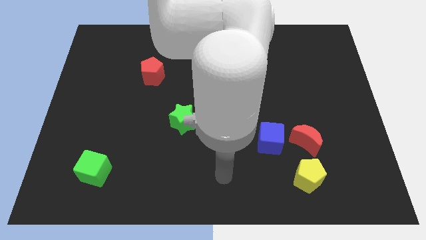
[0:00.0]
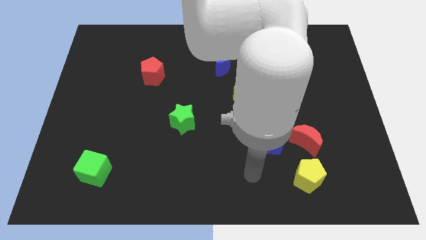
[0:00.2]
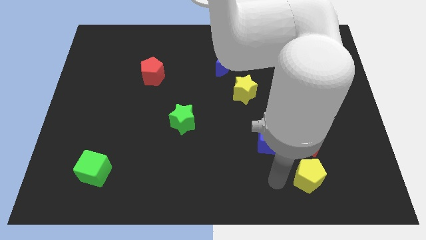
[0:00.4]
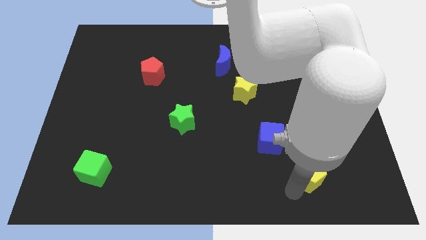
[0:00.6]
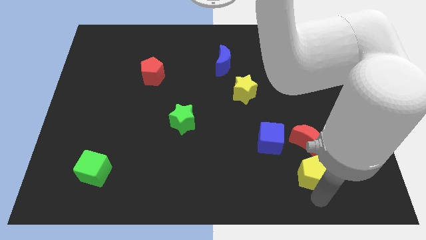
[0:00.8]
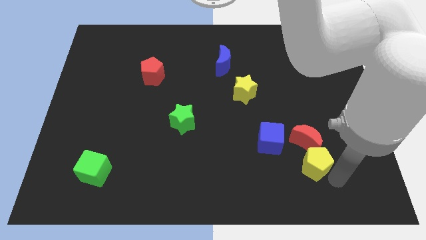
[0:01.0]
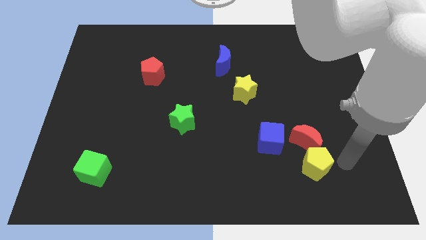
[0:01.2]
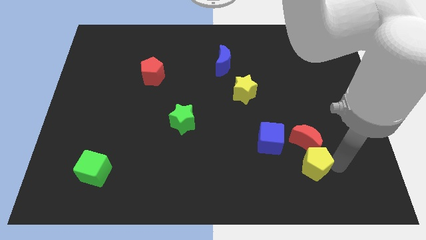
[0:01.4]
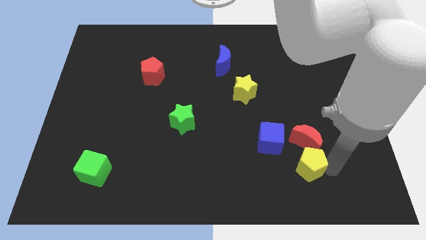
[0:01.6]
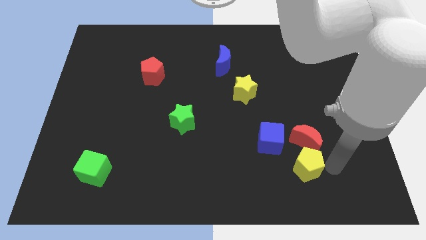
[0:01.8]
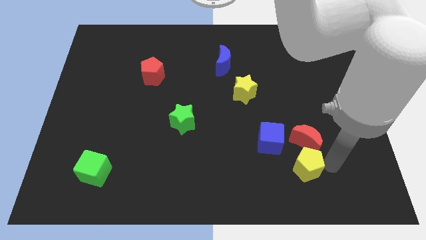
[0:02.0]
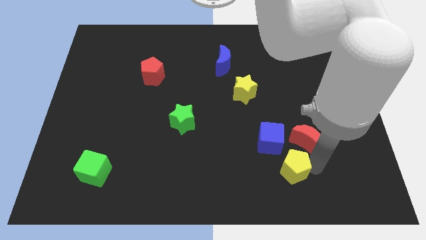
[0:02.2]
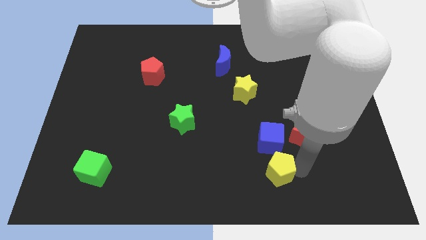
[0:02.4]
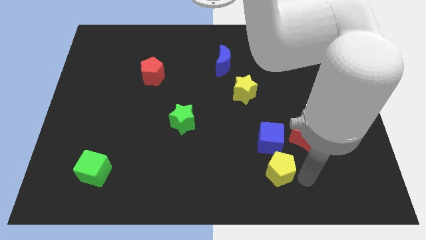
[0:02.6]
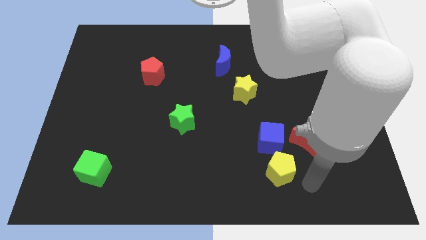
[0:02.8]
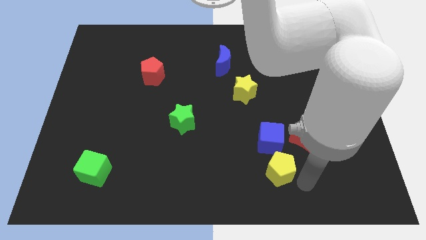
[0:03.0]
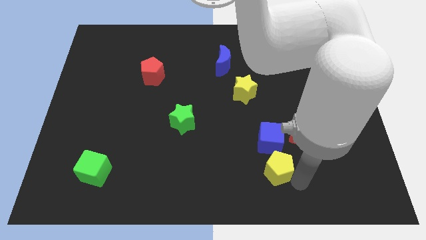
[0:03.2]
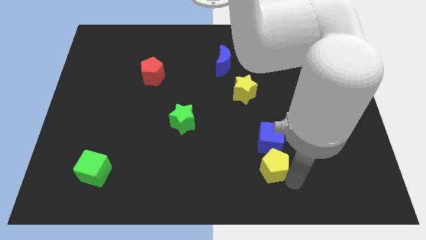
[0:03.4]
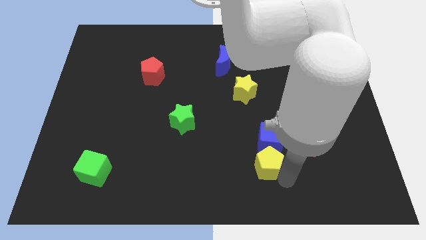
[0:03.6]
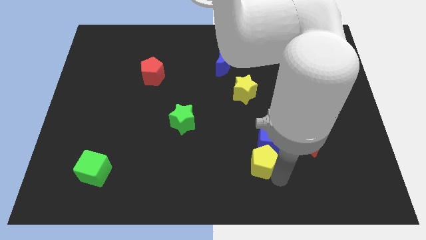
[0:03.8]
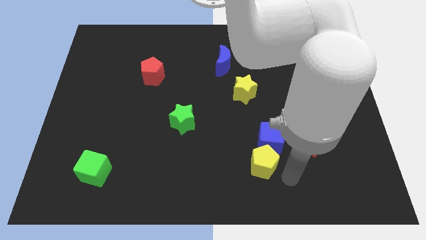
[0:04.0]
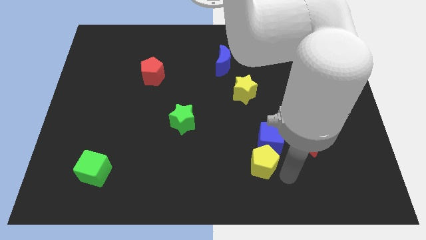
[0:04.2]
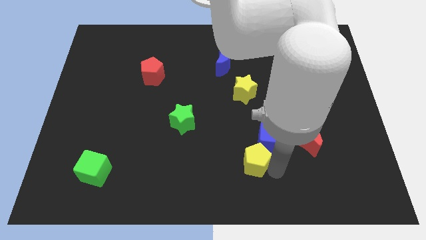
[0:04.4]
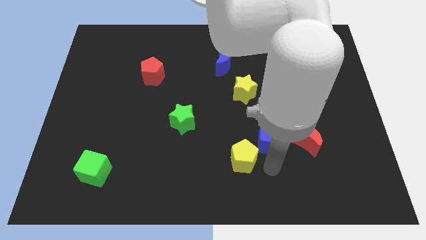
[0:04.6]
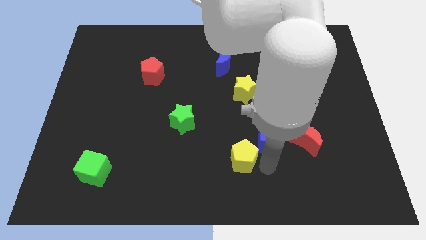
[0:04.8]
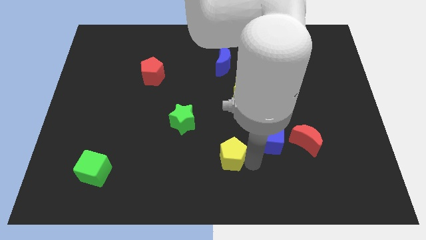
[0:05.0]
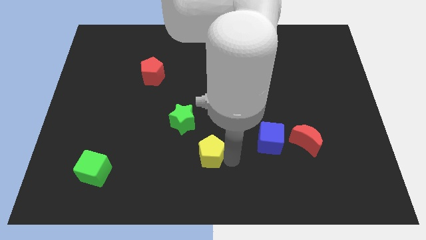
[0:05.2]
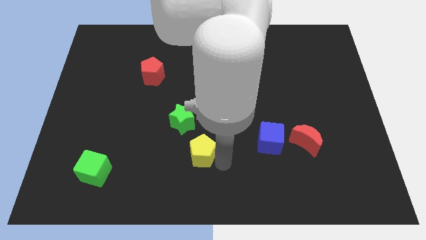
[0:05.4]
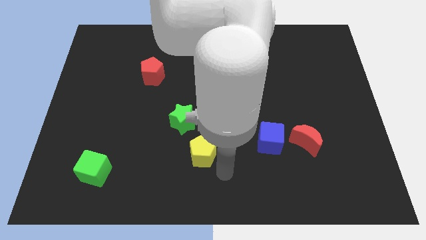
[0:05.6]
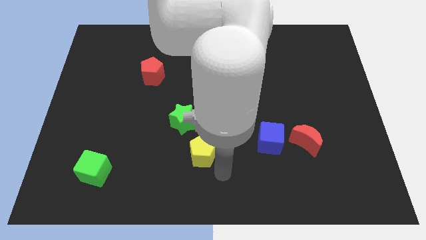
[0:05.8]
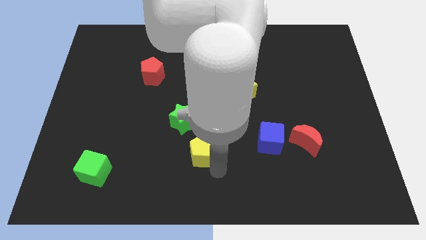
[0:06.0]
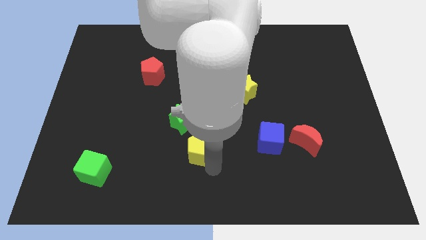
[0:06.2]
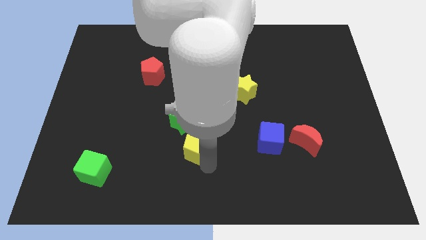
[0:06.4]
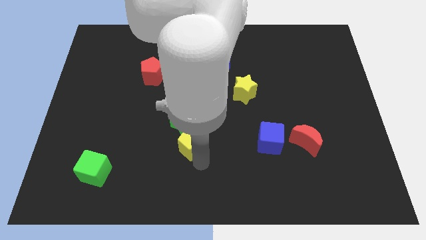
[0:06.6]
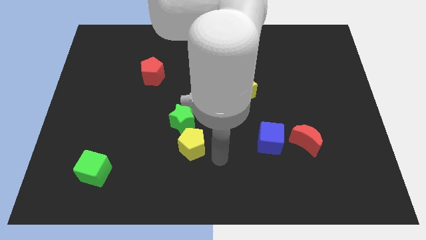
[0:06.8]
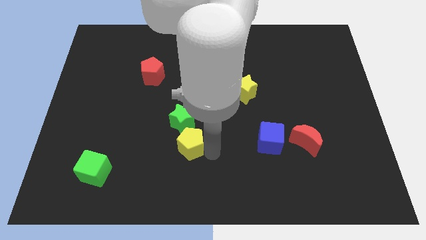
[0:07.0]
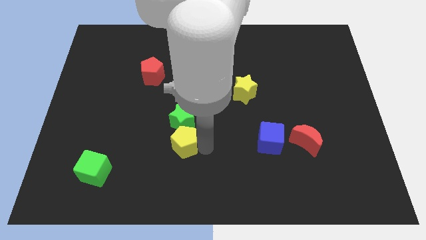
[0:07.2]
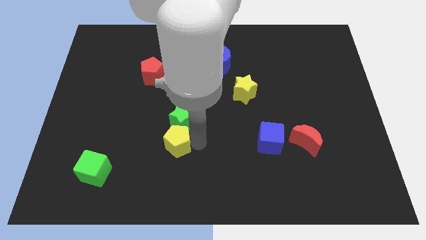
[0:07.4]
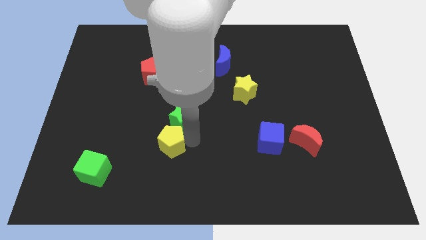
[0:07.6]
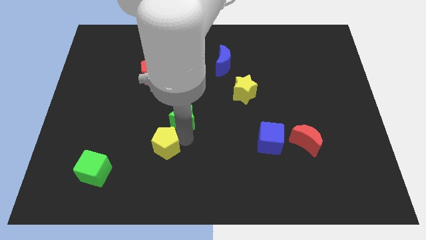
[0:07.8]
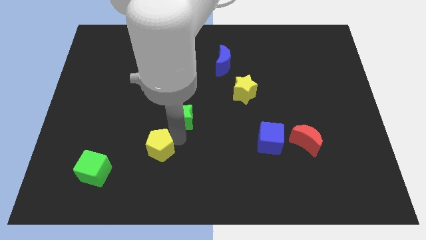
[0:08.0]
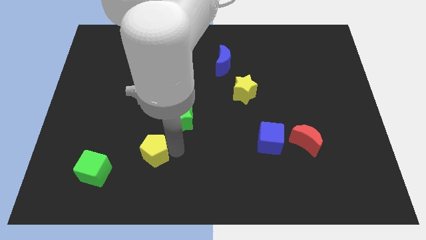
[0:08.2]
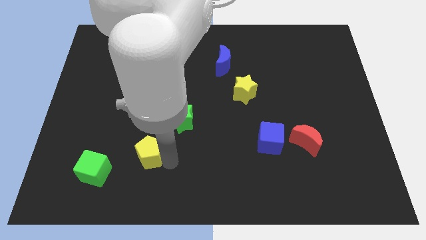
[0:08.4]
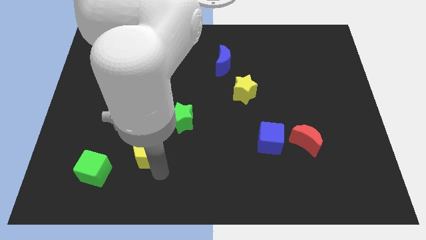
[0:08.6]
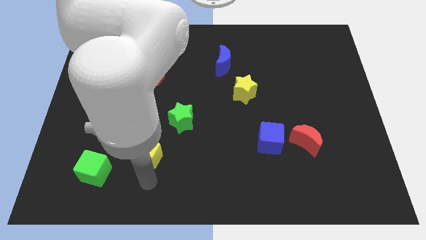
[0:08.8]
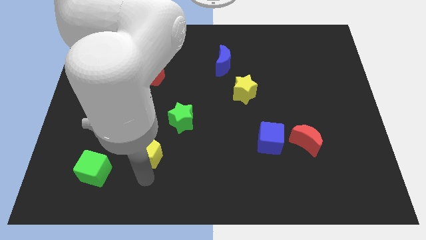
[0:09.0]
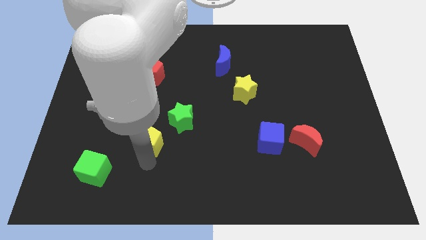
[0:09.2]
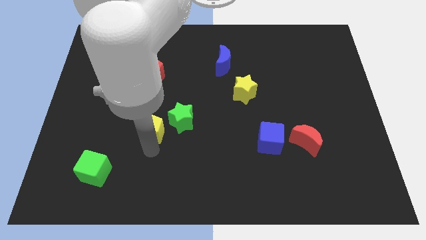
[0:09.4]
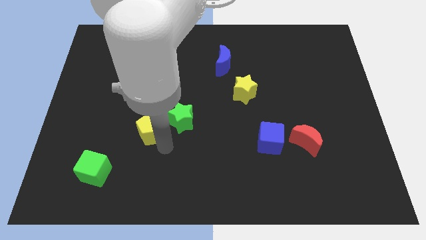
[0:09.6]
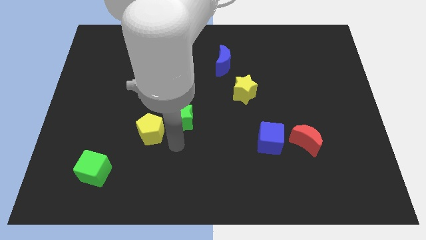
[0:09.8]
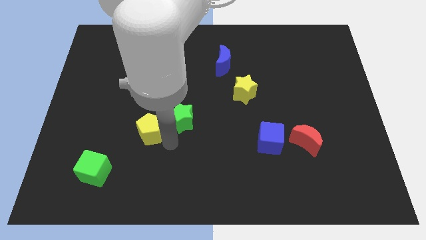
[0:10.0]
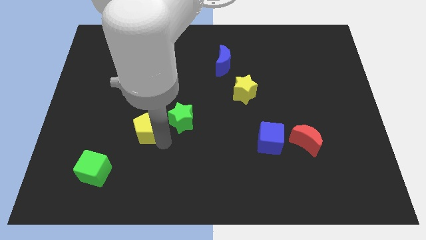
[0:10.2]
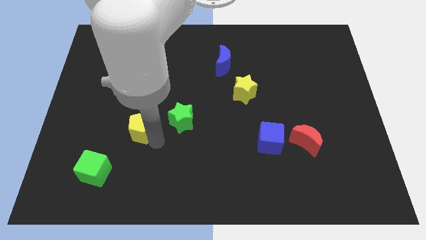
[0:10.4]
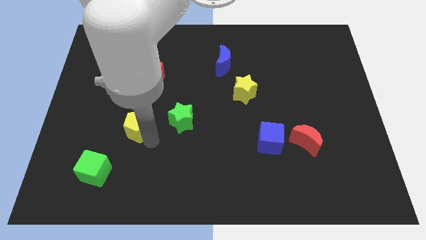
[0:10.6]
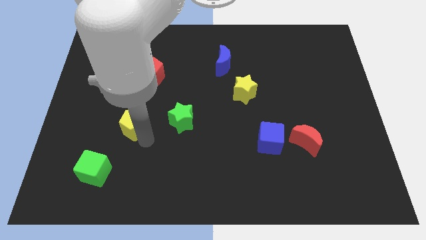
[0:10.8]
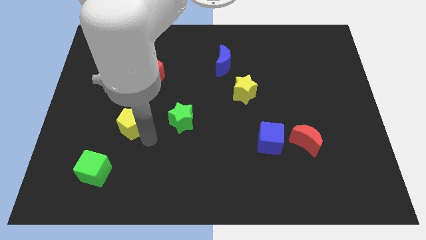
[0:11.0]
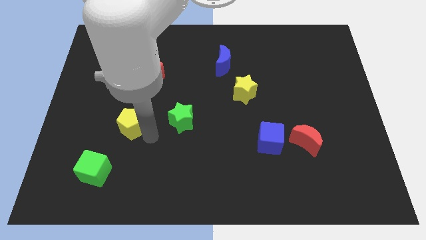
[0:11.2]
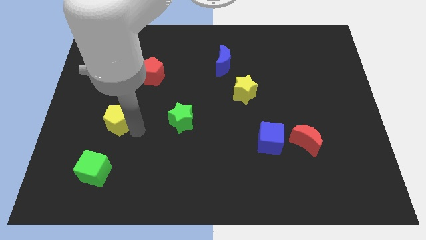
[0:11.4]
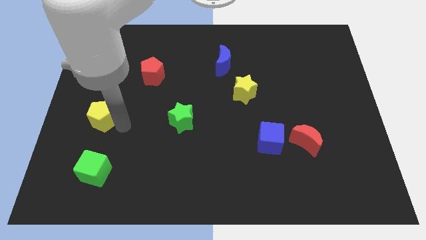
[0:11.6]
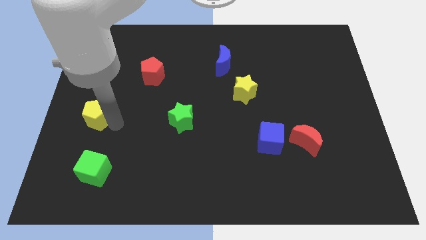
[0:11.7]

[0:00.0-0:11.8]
push the yellow pentagon to the left side of the board

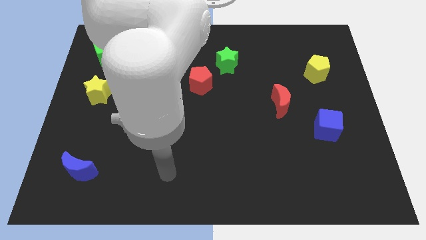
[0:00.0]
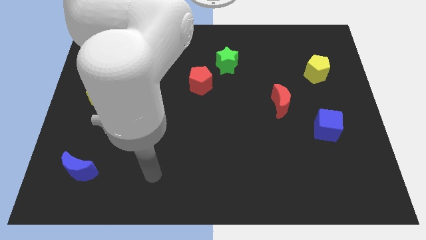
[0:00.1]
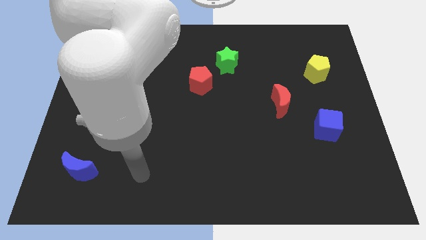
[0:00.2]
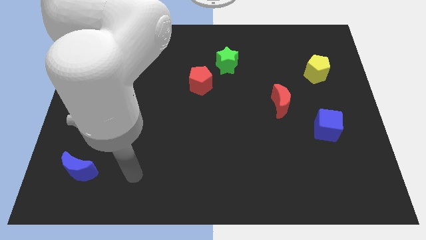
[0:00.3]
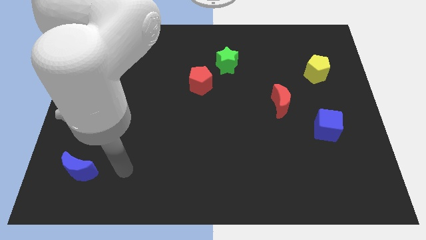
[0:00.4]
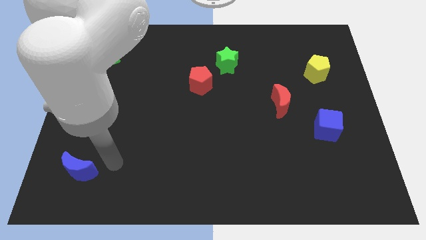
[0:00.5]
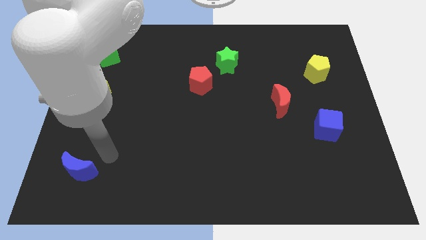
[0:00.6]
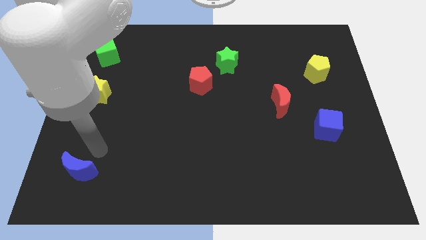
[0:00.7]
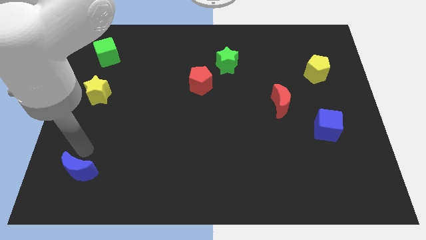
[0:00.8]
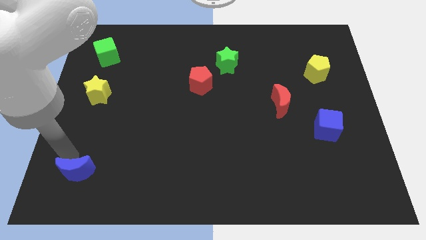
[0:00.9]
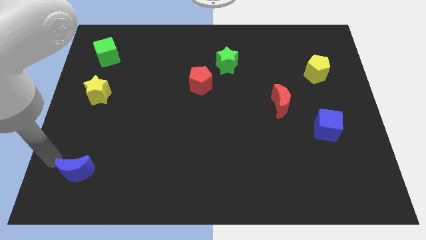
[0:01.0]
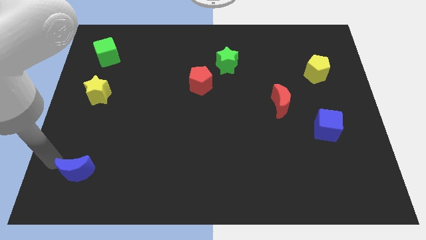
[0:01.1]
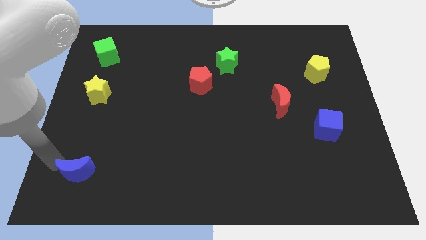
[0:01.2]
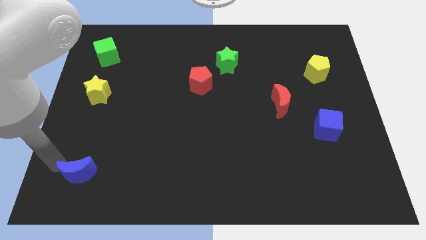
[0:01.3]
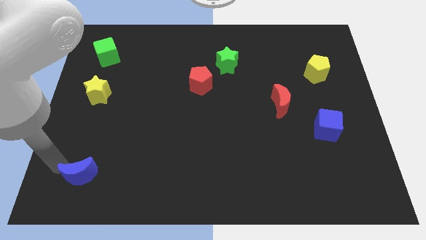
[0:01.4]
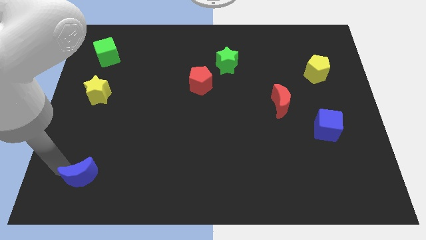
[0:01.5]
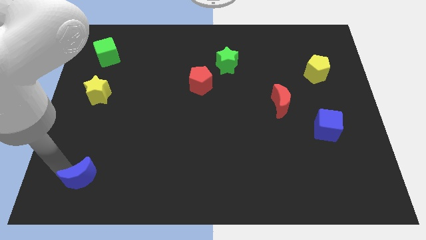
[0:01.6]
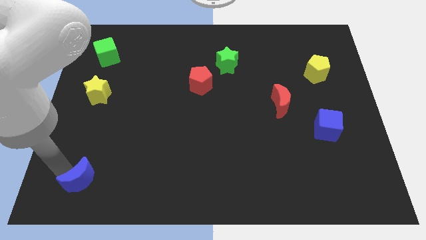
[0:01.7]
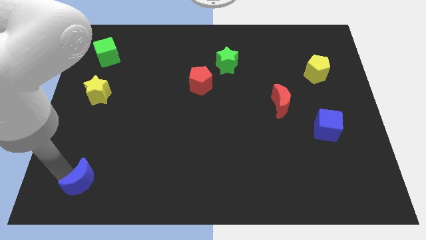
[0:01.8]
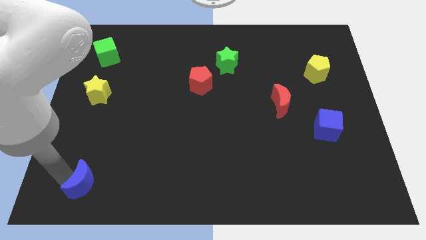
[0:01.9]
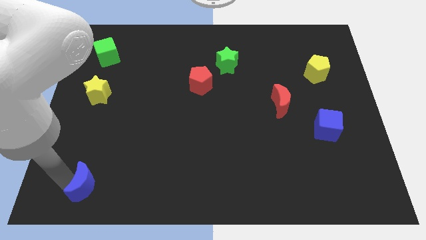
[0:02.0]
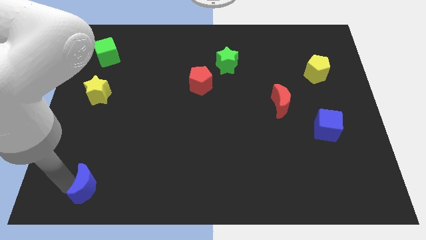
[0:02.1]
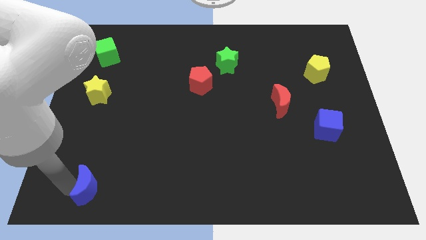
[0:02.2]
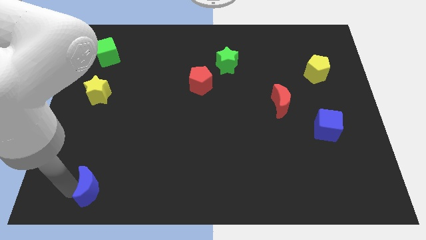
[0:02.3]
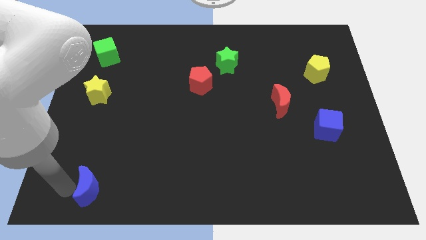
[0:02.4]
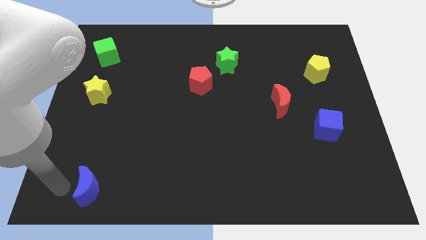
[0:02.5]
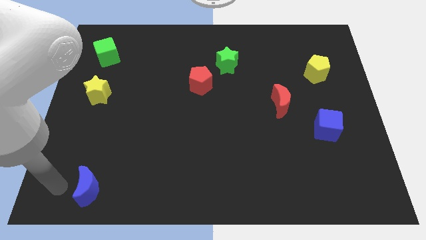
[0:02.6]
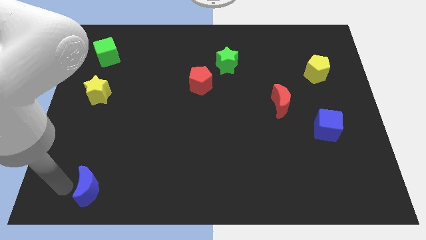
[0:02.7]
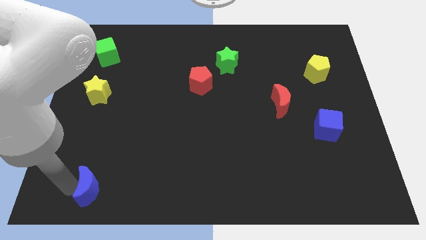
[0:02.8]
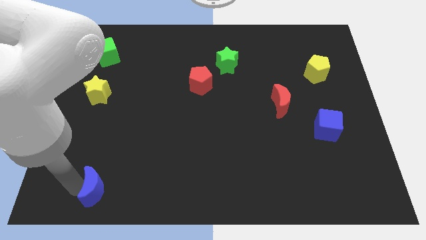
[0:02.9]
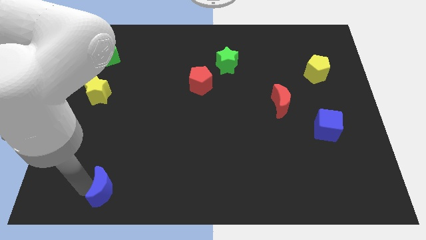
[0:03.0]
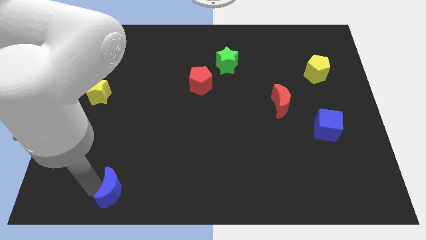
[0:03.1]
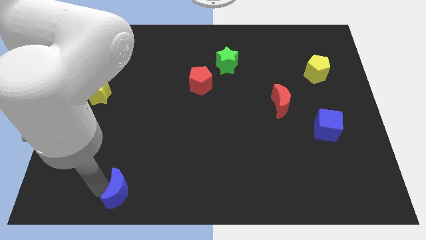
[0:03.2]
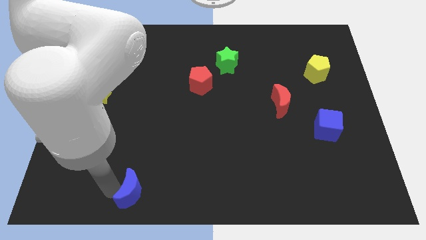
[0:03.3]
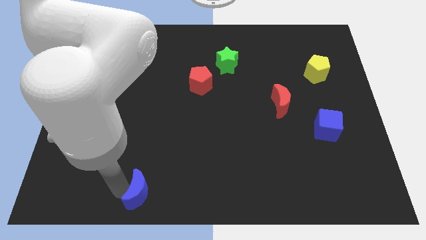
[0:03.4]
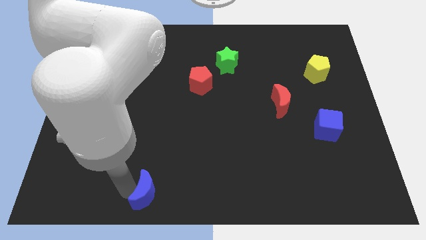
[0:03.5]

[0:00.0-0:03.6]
put the blue moon to the bottom side
